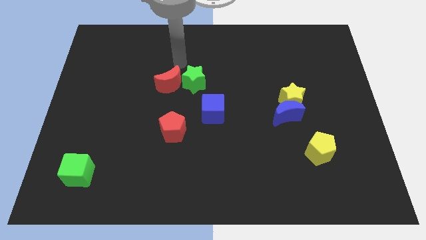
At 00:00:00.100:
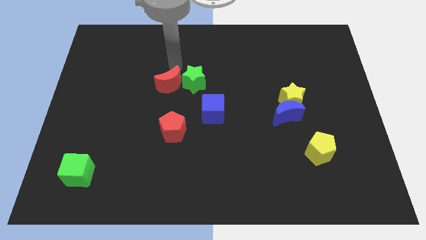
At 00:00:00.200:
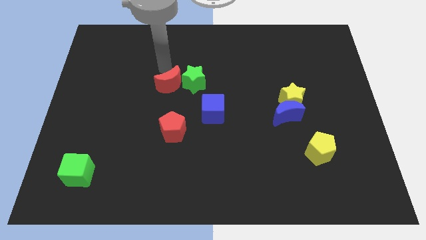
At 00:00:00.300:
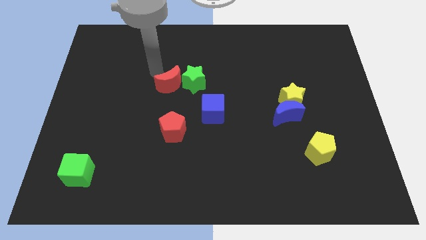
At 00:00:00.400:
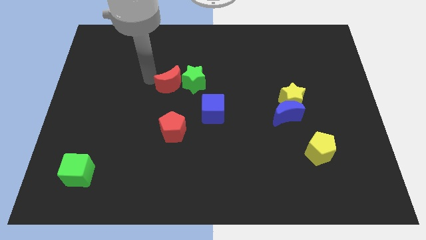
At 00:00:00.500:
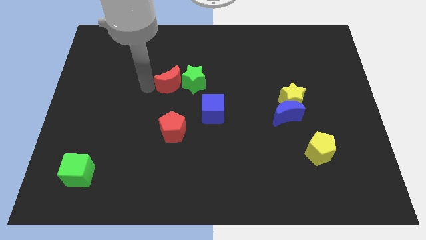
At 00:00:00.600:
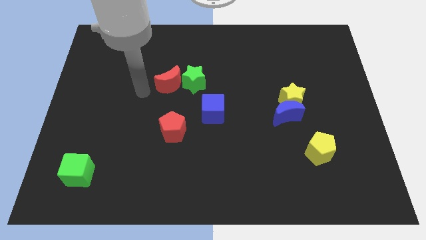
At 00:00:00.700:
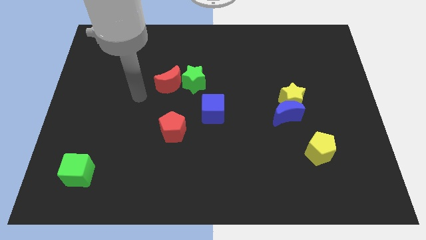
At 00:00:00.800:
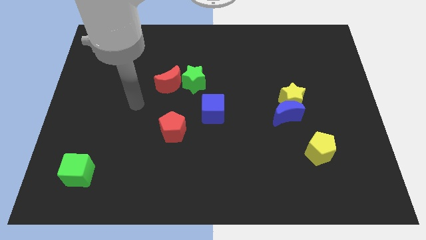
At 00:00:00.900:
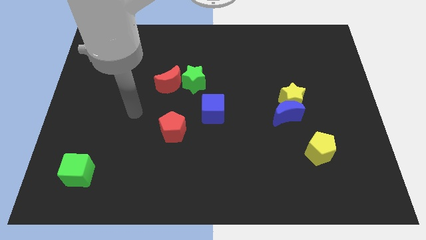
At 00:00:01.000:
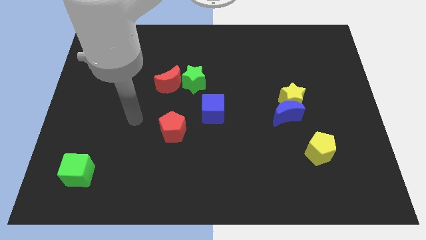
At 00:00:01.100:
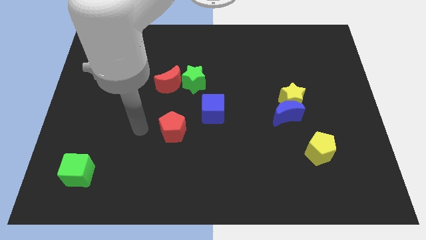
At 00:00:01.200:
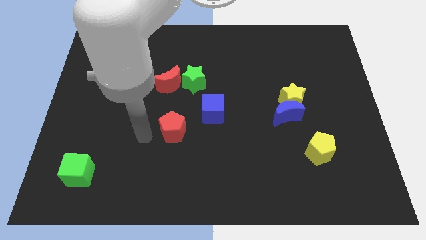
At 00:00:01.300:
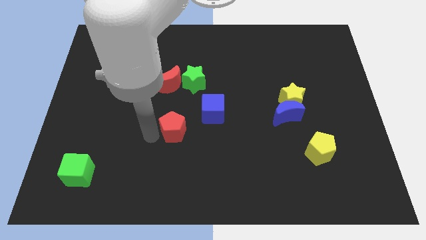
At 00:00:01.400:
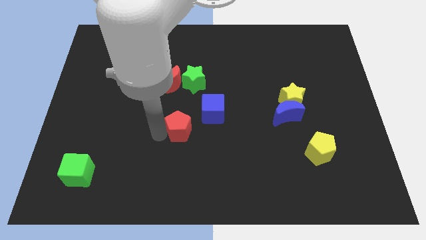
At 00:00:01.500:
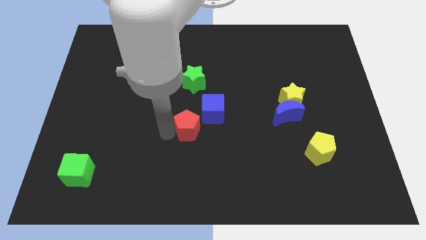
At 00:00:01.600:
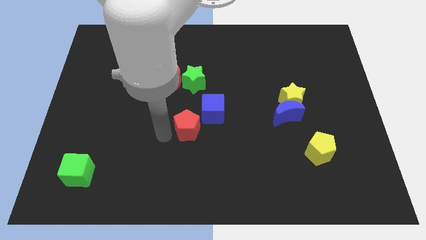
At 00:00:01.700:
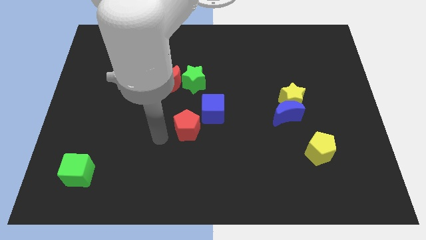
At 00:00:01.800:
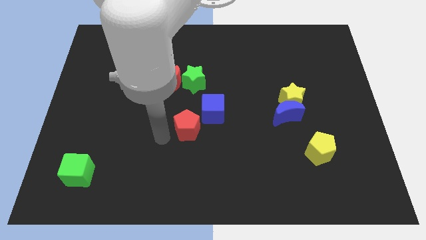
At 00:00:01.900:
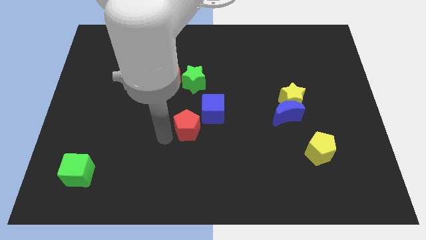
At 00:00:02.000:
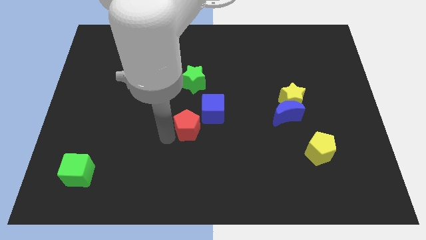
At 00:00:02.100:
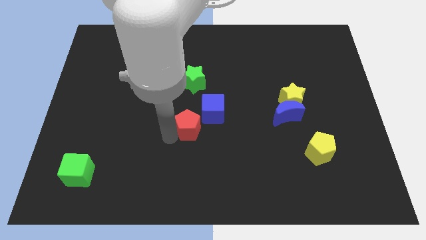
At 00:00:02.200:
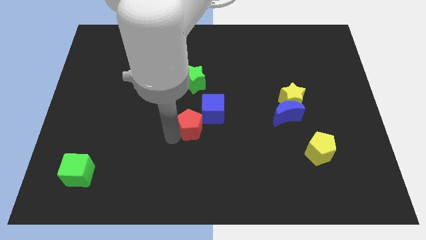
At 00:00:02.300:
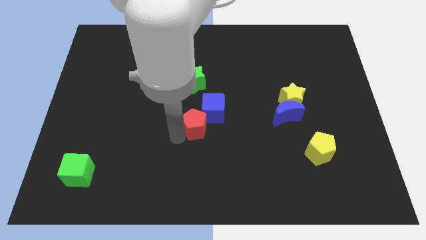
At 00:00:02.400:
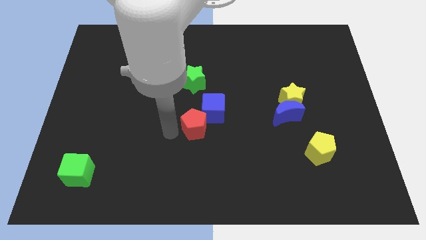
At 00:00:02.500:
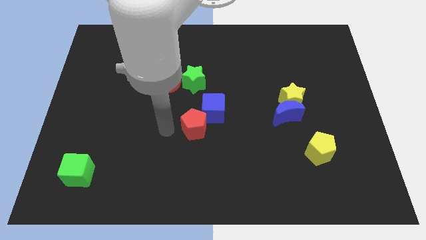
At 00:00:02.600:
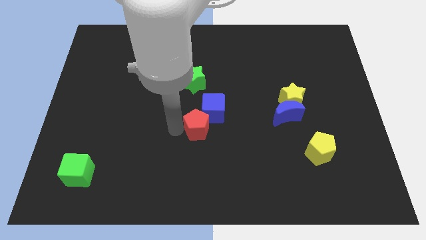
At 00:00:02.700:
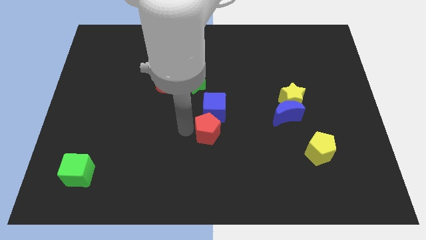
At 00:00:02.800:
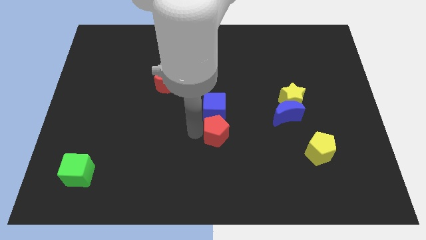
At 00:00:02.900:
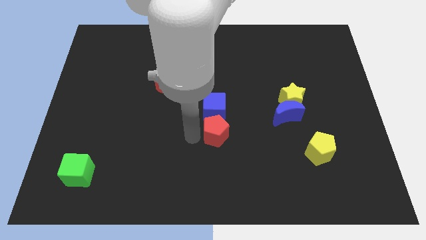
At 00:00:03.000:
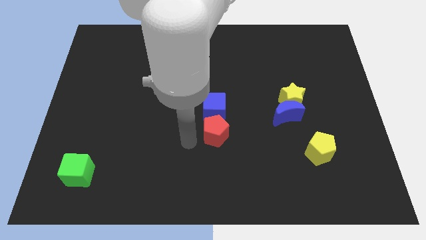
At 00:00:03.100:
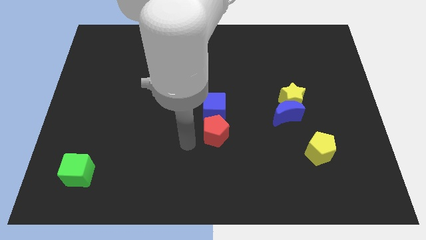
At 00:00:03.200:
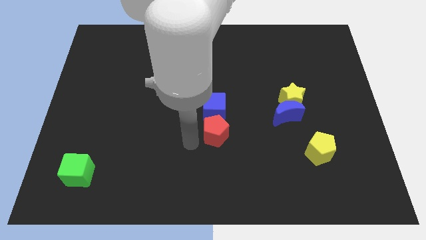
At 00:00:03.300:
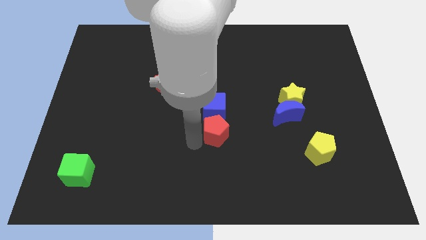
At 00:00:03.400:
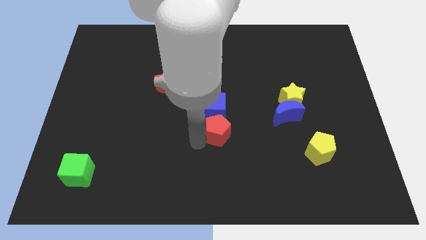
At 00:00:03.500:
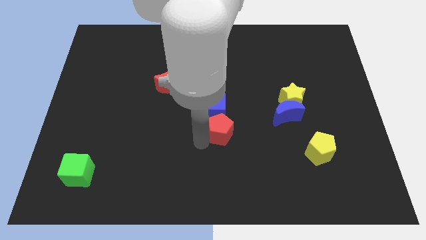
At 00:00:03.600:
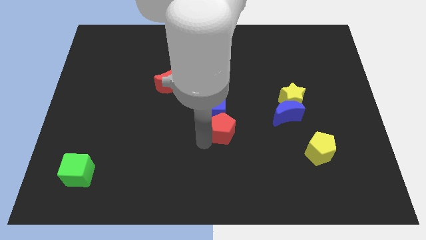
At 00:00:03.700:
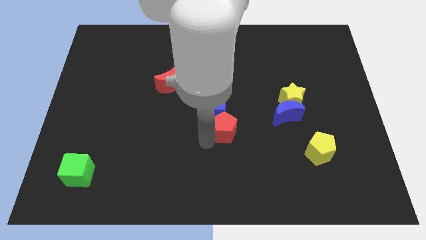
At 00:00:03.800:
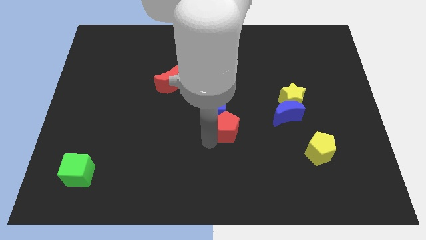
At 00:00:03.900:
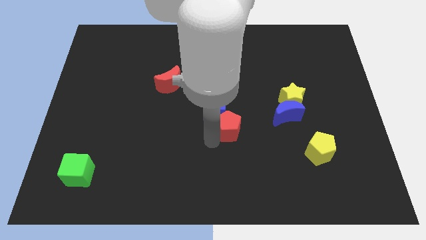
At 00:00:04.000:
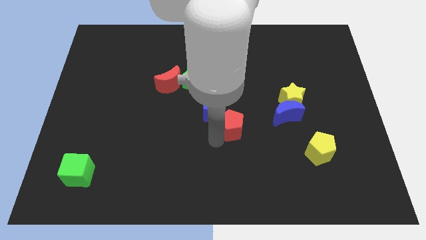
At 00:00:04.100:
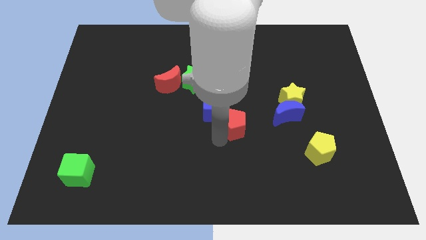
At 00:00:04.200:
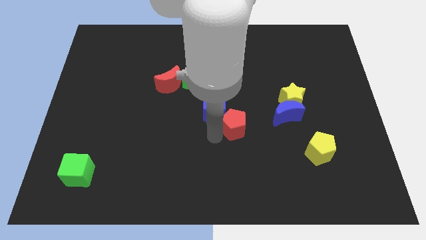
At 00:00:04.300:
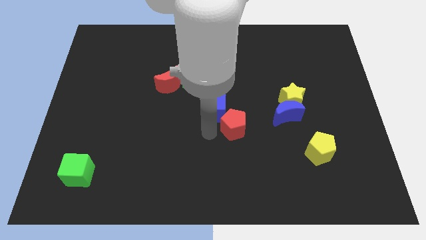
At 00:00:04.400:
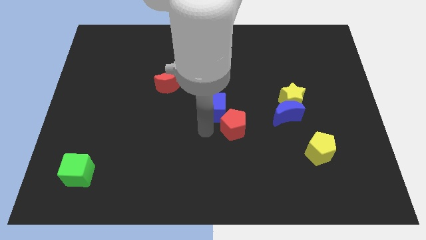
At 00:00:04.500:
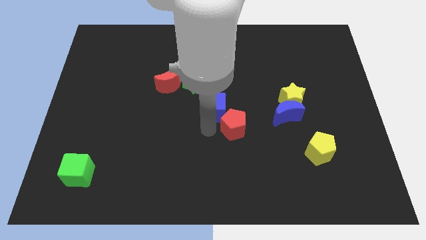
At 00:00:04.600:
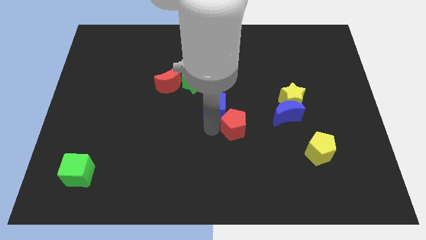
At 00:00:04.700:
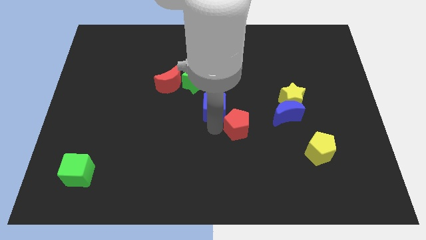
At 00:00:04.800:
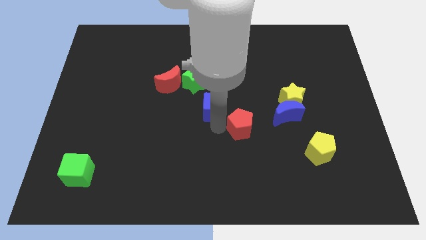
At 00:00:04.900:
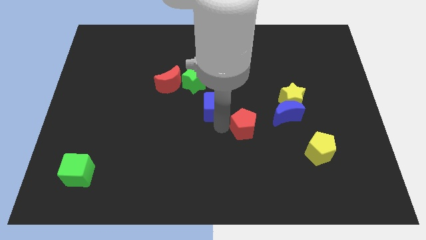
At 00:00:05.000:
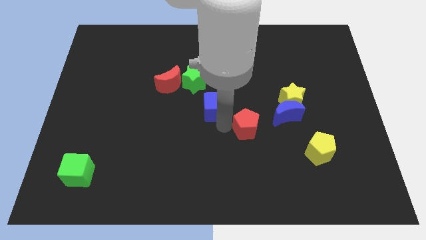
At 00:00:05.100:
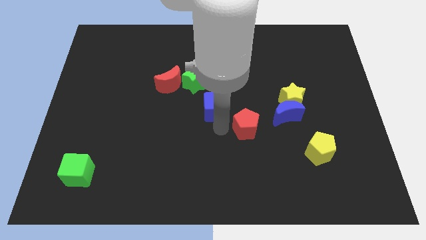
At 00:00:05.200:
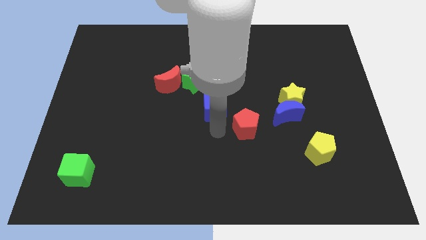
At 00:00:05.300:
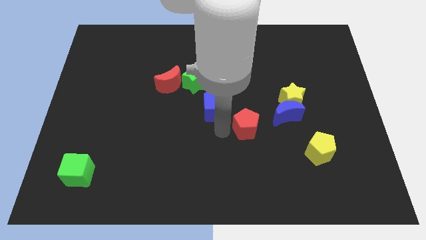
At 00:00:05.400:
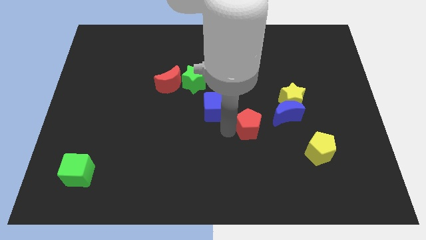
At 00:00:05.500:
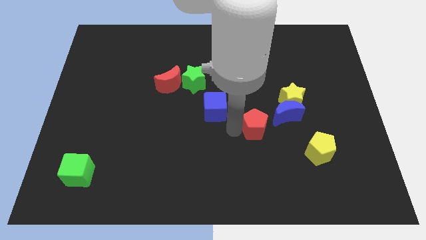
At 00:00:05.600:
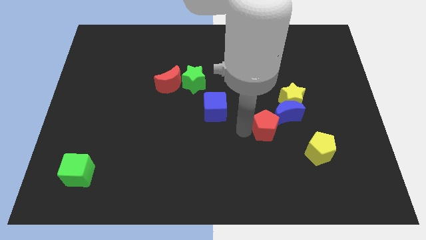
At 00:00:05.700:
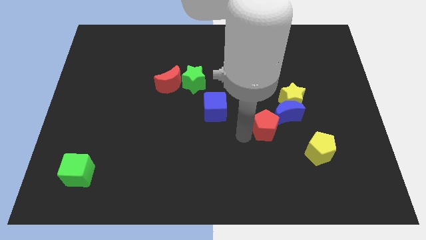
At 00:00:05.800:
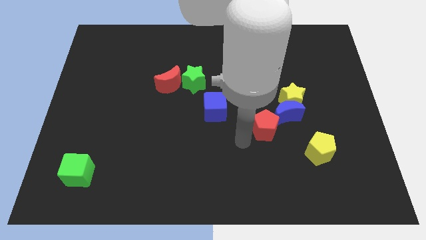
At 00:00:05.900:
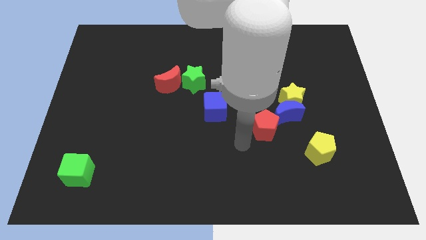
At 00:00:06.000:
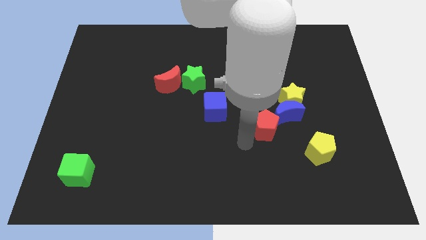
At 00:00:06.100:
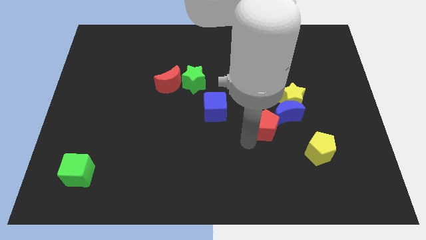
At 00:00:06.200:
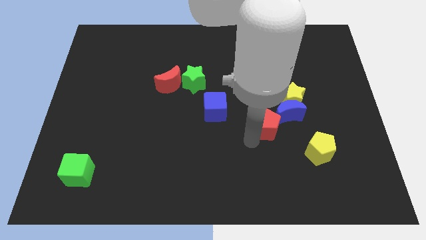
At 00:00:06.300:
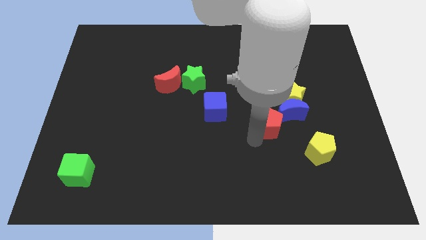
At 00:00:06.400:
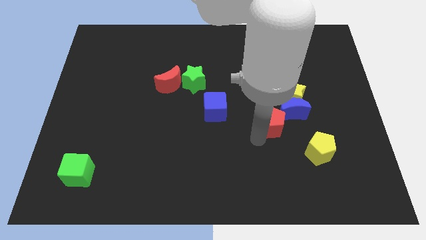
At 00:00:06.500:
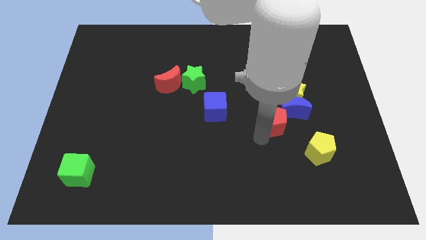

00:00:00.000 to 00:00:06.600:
push the red pentagon to the blue moon

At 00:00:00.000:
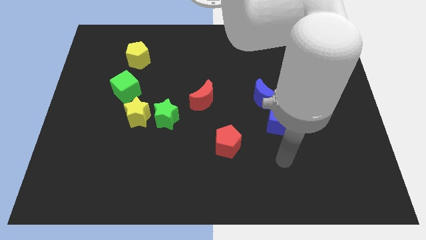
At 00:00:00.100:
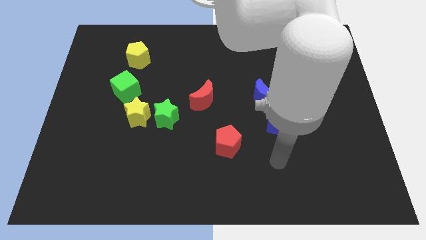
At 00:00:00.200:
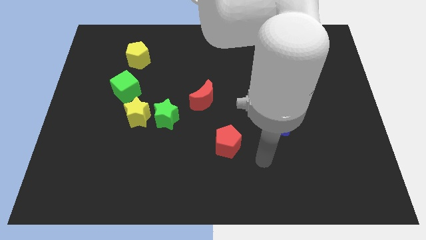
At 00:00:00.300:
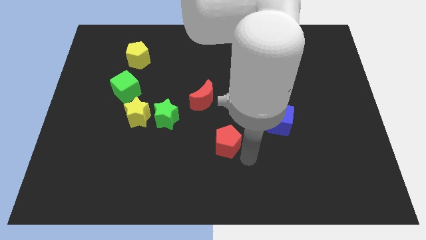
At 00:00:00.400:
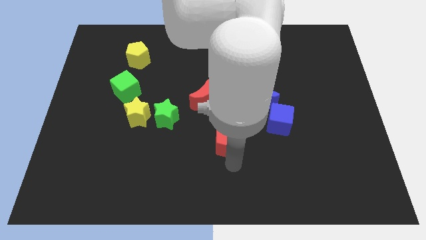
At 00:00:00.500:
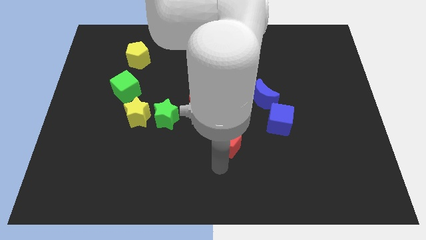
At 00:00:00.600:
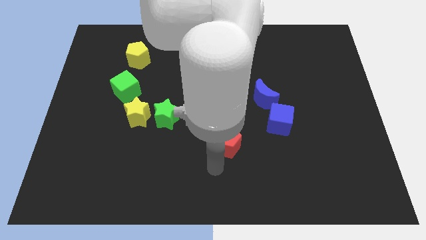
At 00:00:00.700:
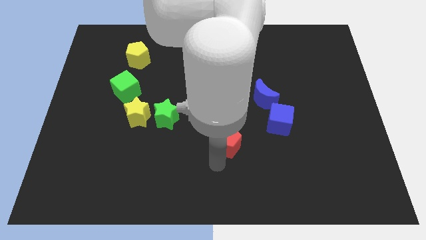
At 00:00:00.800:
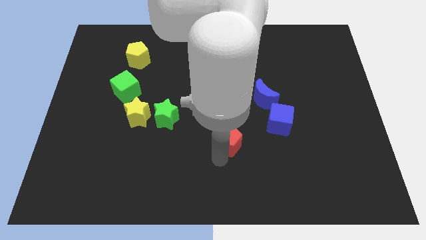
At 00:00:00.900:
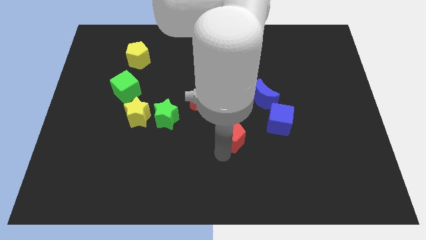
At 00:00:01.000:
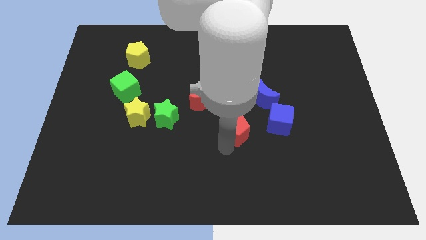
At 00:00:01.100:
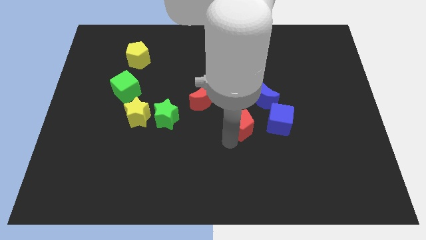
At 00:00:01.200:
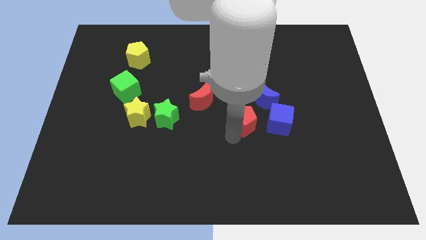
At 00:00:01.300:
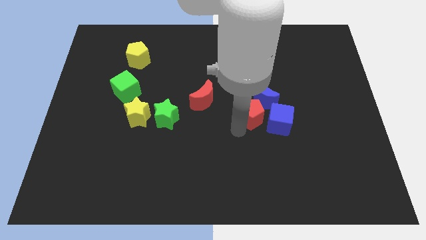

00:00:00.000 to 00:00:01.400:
move the red pentagon to the blue moon
